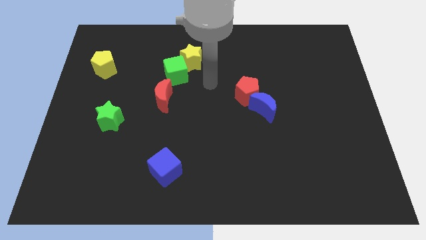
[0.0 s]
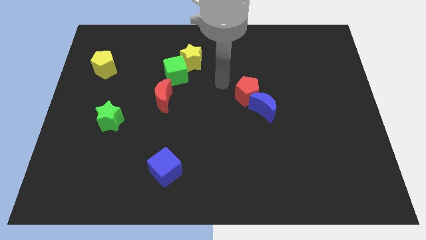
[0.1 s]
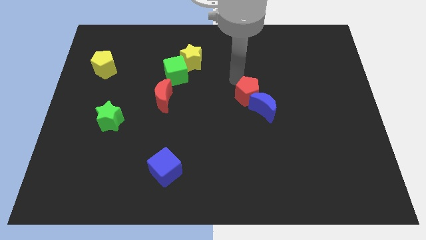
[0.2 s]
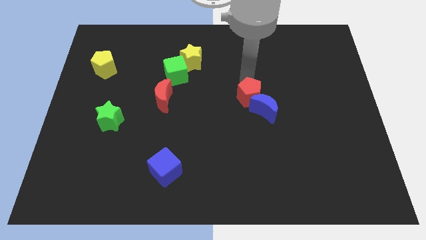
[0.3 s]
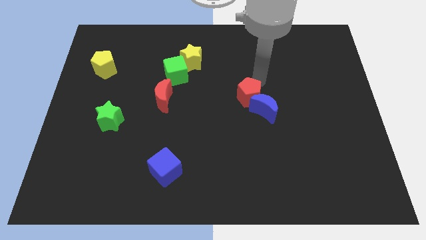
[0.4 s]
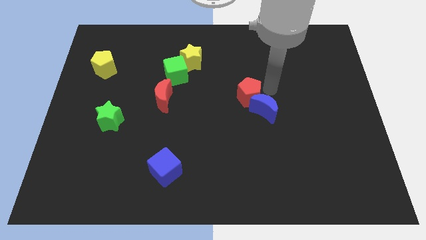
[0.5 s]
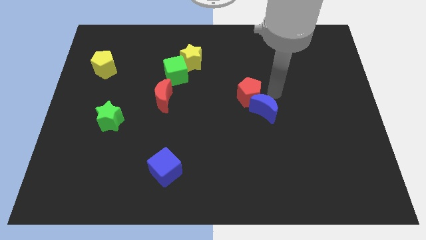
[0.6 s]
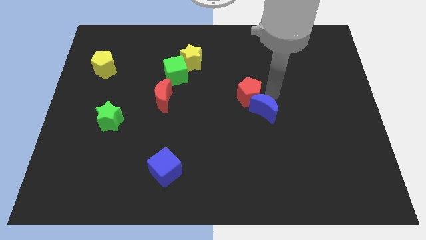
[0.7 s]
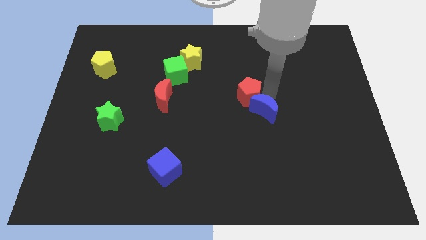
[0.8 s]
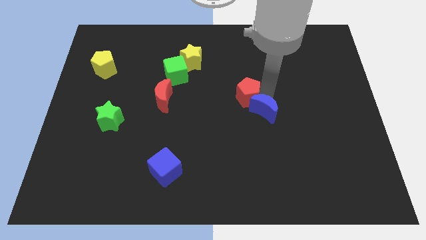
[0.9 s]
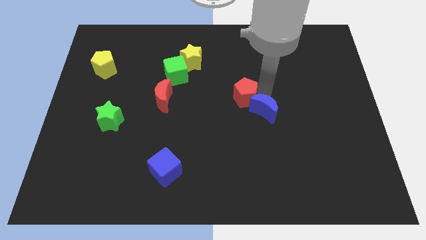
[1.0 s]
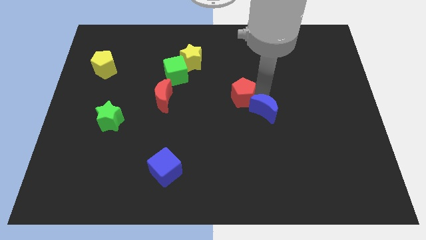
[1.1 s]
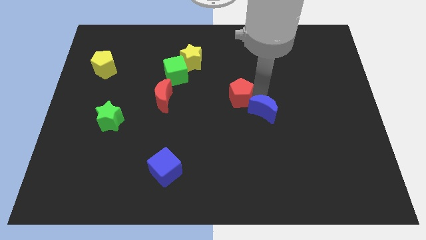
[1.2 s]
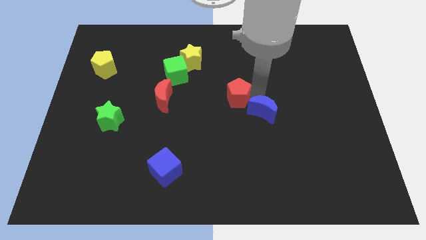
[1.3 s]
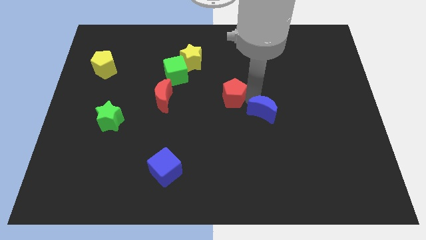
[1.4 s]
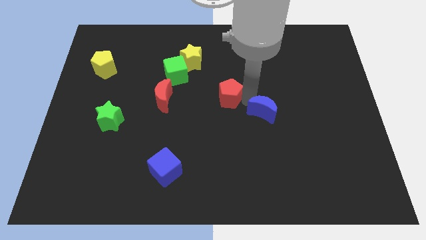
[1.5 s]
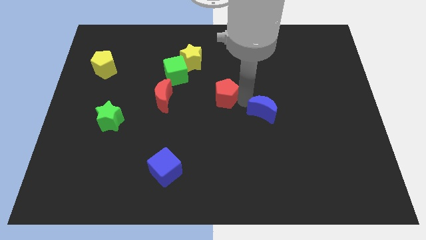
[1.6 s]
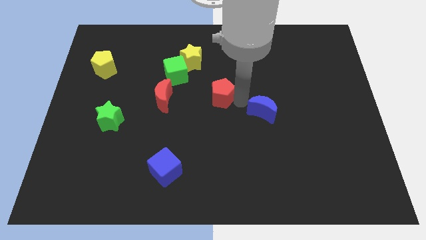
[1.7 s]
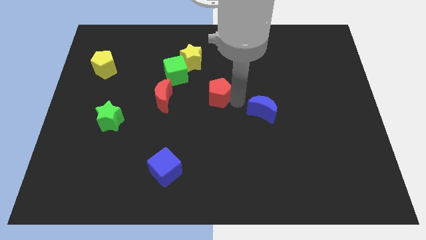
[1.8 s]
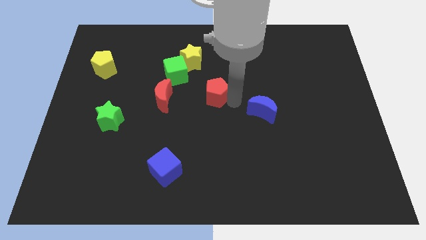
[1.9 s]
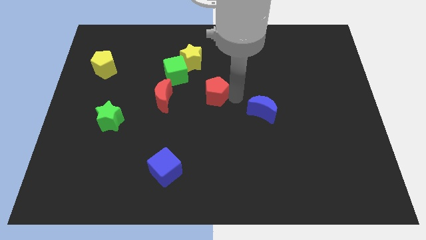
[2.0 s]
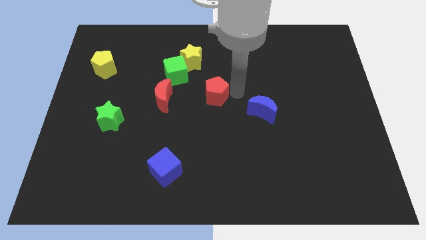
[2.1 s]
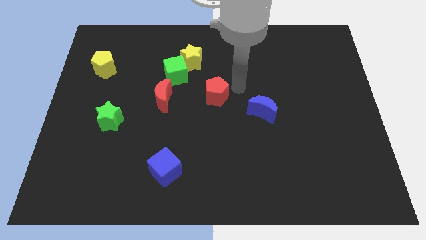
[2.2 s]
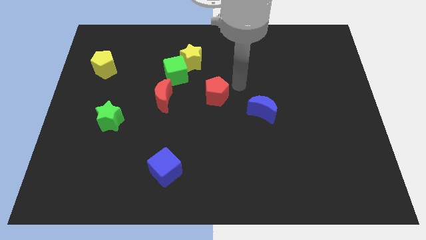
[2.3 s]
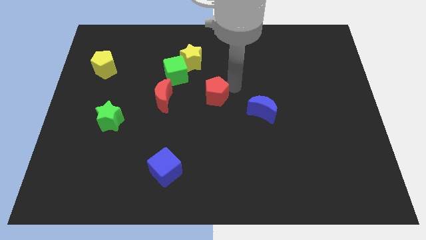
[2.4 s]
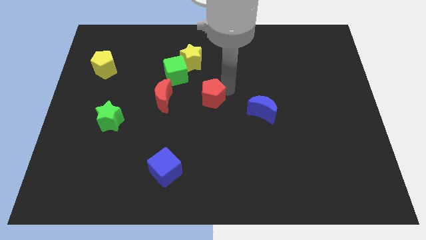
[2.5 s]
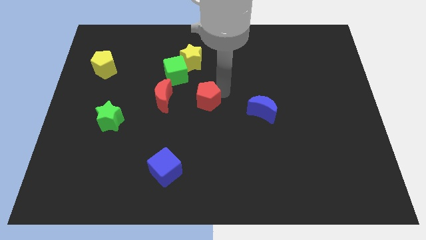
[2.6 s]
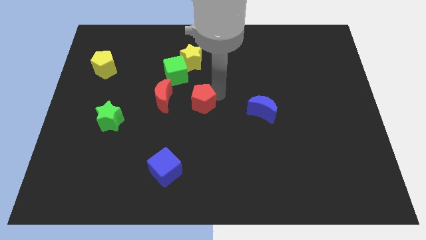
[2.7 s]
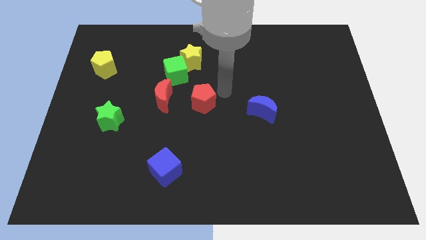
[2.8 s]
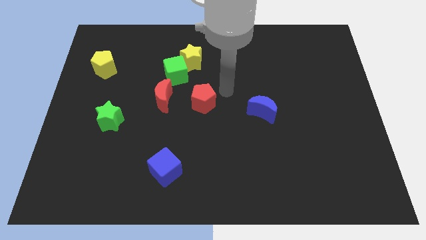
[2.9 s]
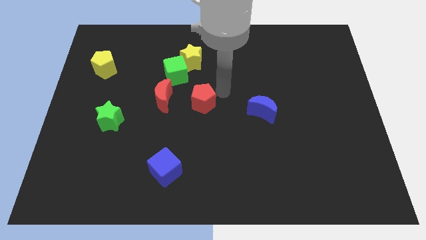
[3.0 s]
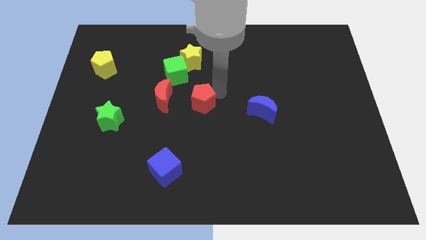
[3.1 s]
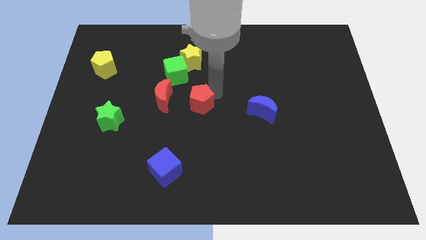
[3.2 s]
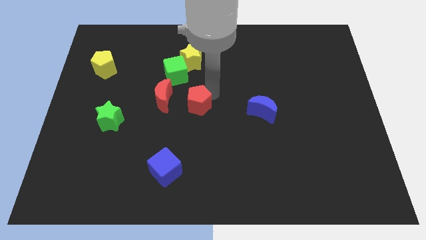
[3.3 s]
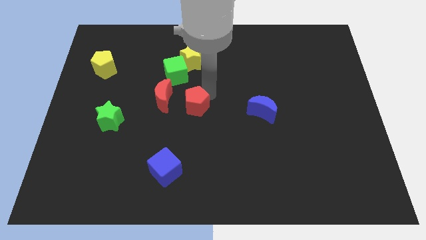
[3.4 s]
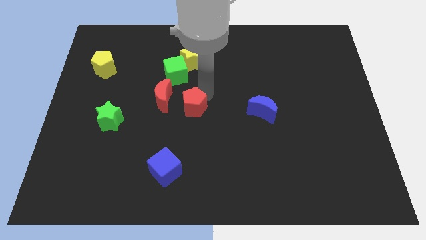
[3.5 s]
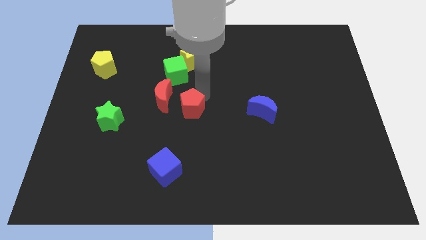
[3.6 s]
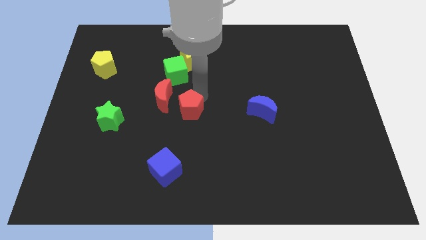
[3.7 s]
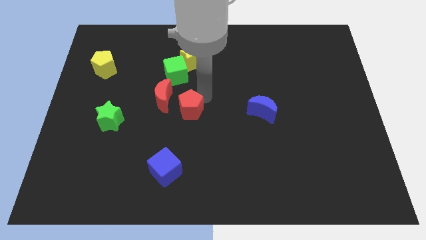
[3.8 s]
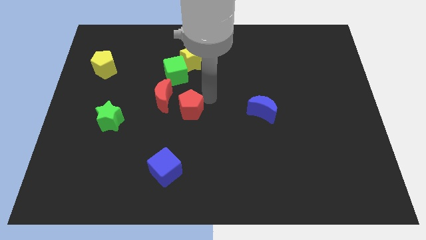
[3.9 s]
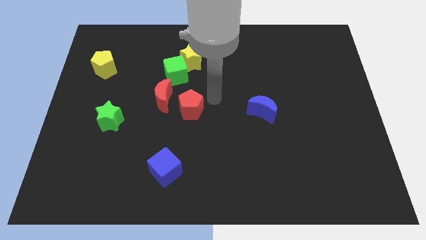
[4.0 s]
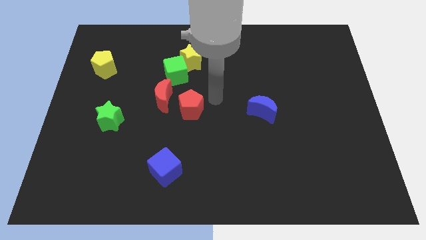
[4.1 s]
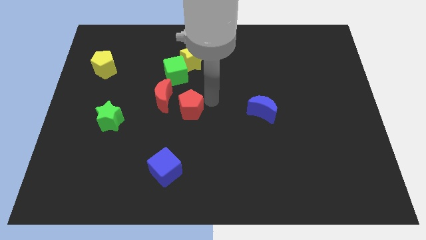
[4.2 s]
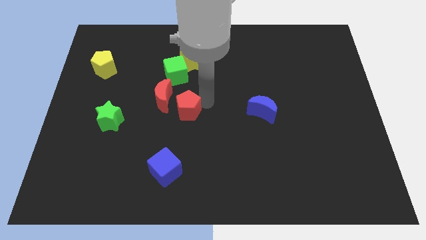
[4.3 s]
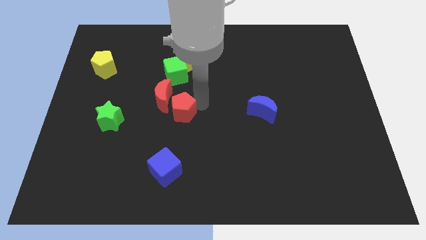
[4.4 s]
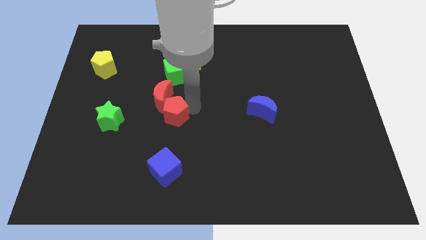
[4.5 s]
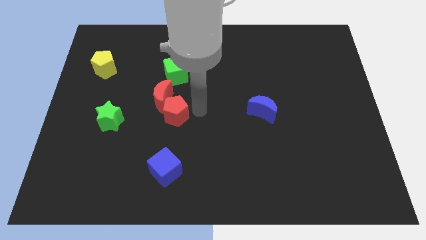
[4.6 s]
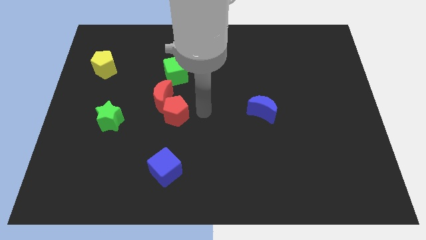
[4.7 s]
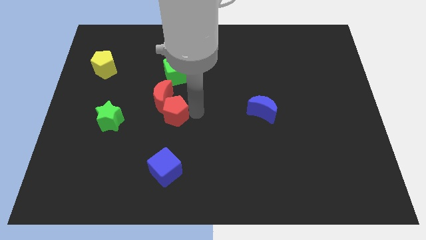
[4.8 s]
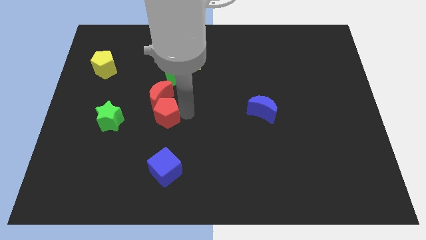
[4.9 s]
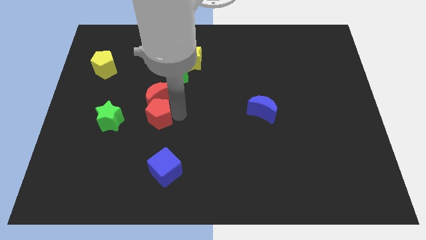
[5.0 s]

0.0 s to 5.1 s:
push the red pentagon to the bottom left of the red moon

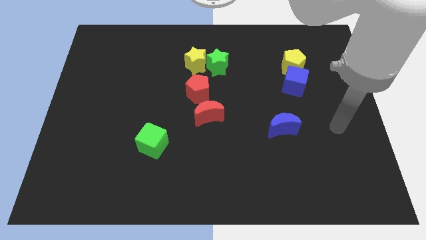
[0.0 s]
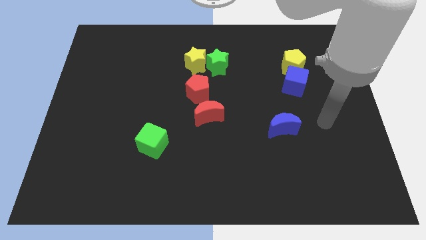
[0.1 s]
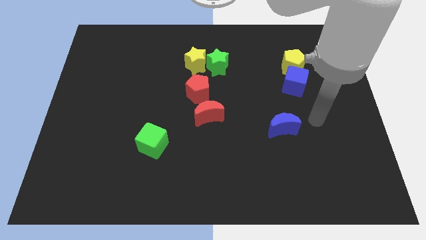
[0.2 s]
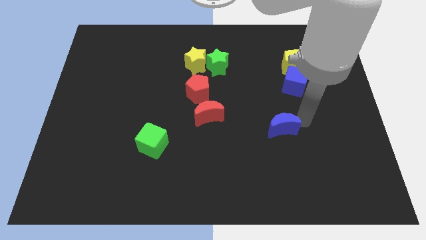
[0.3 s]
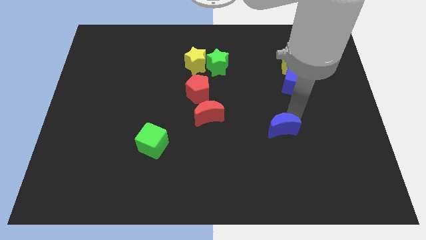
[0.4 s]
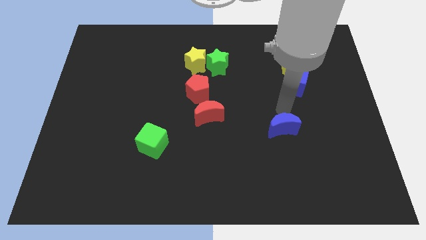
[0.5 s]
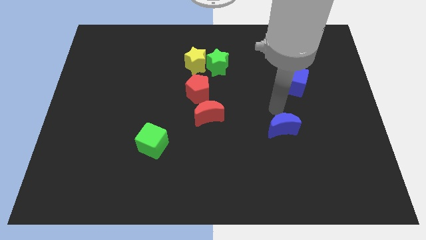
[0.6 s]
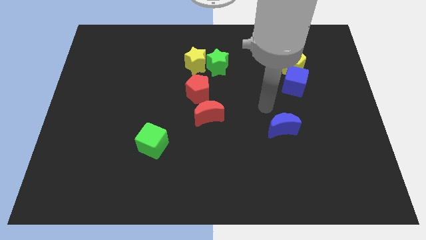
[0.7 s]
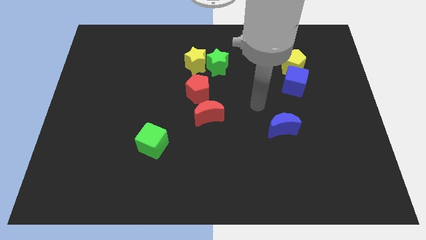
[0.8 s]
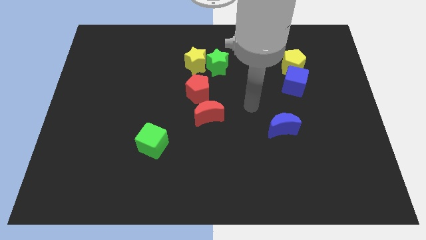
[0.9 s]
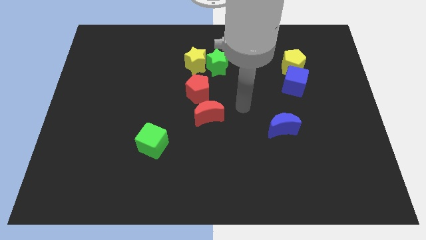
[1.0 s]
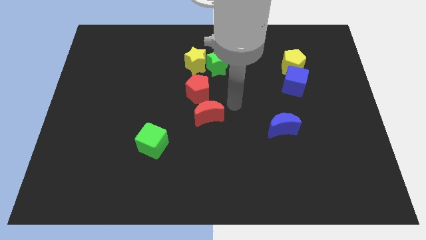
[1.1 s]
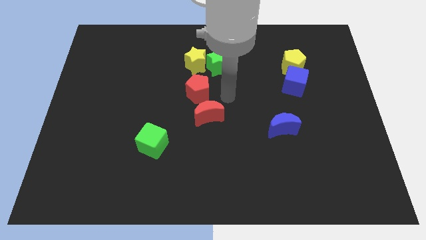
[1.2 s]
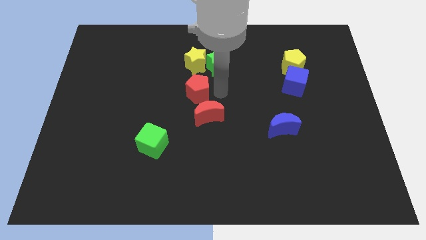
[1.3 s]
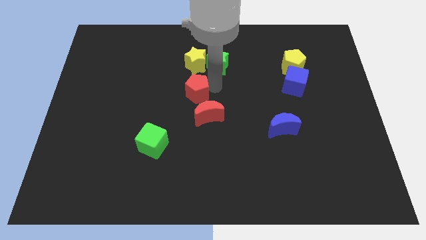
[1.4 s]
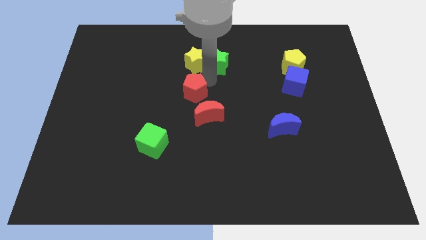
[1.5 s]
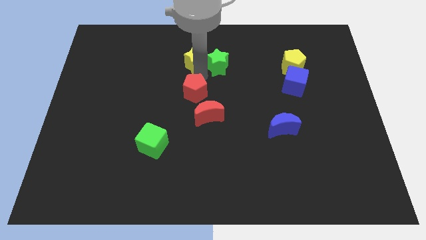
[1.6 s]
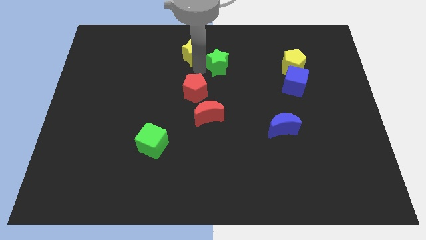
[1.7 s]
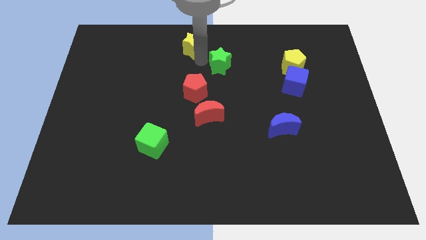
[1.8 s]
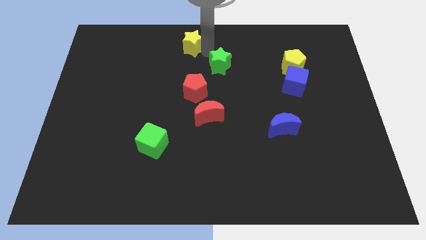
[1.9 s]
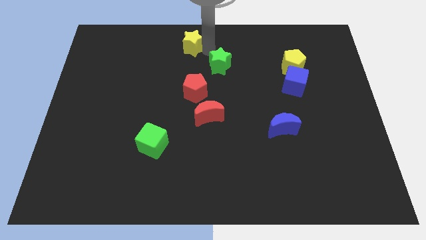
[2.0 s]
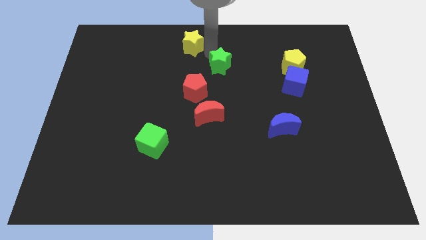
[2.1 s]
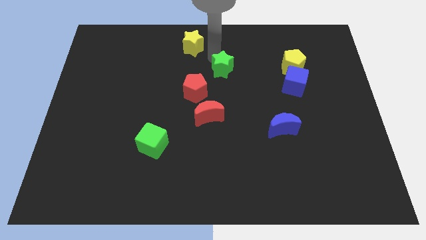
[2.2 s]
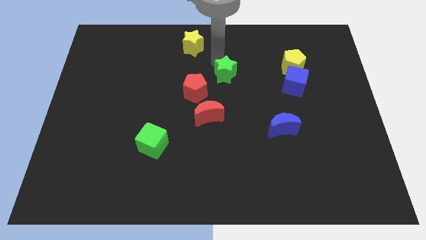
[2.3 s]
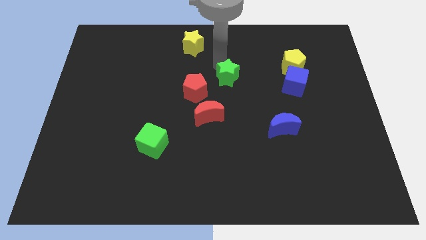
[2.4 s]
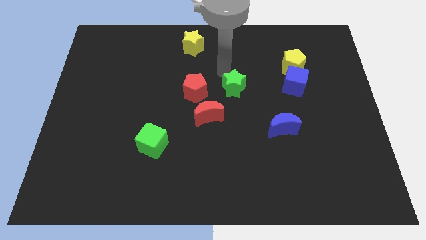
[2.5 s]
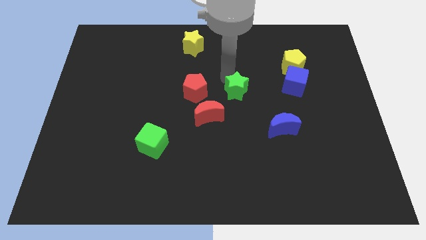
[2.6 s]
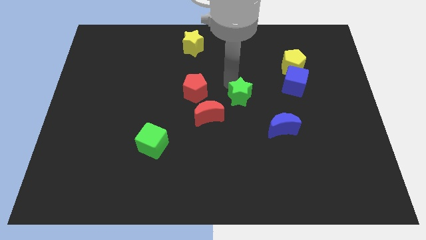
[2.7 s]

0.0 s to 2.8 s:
slide the green star to the top left of the blue moon
